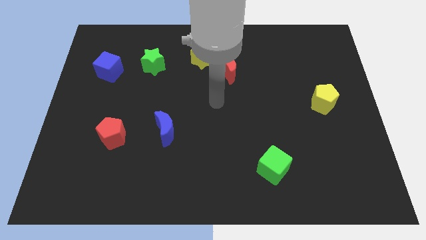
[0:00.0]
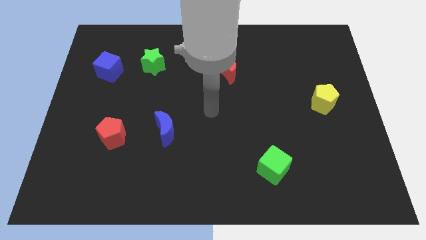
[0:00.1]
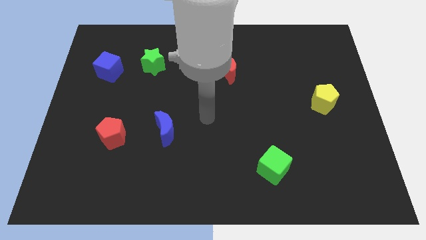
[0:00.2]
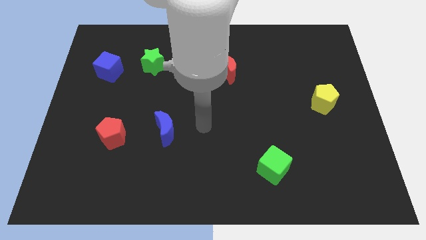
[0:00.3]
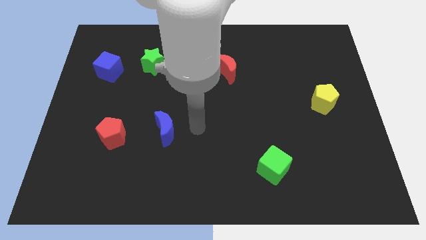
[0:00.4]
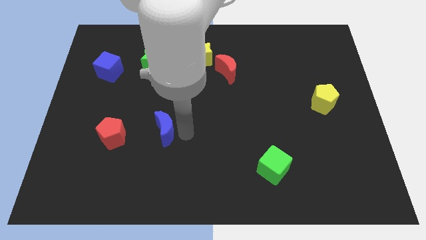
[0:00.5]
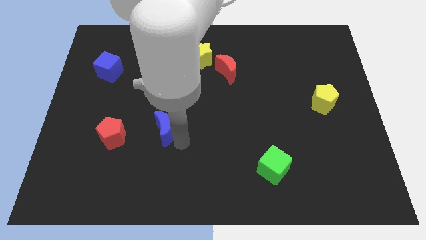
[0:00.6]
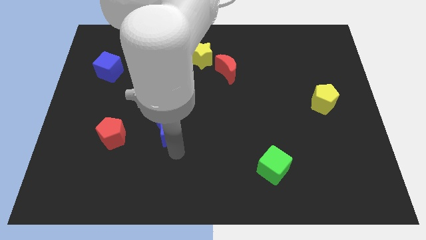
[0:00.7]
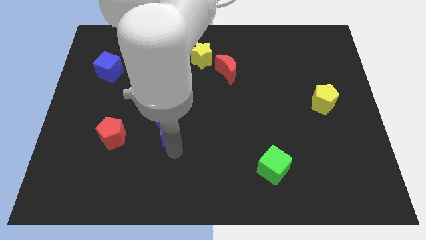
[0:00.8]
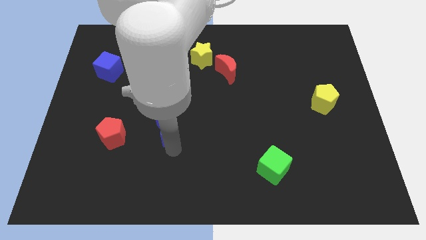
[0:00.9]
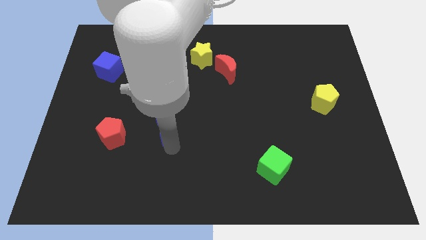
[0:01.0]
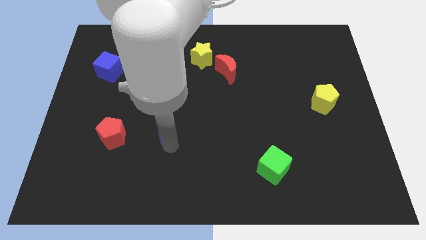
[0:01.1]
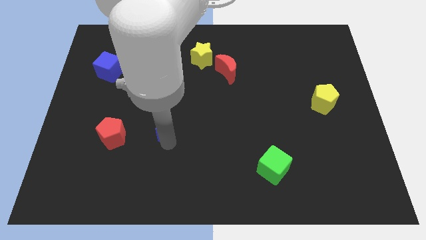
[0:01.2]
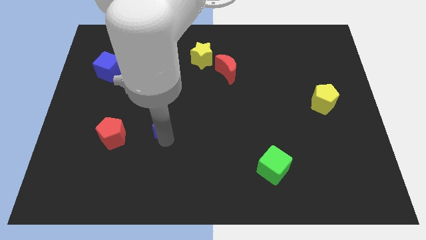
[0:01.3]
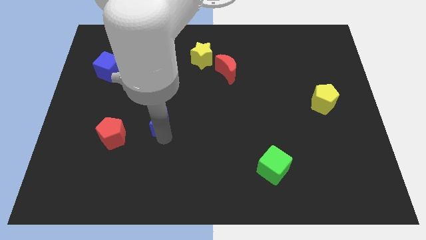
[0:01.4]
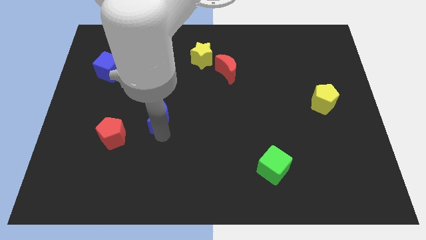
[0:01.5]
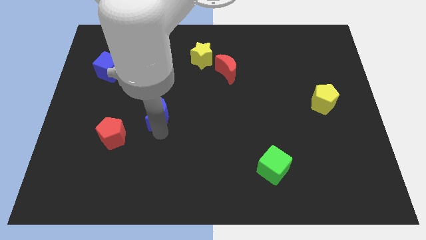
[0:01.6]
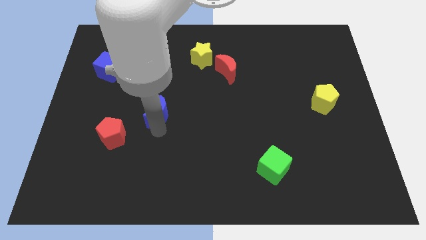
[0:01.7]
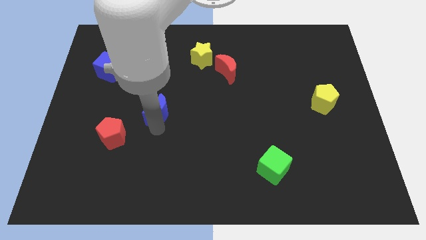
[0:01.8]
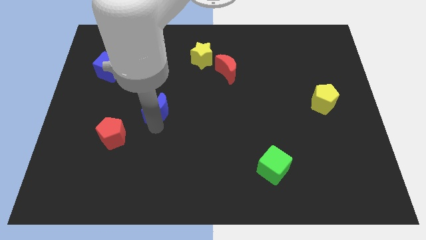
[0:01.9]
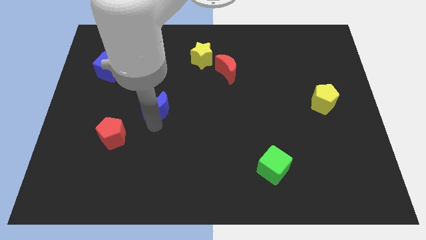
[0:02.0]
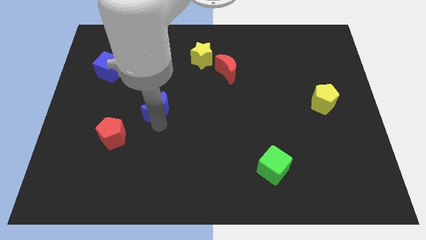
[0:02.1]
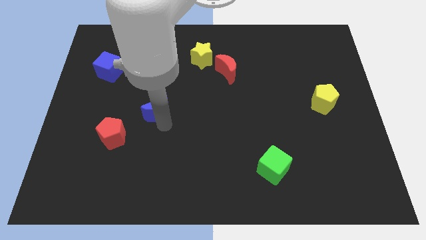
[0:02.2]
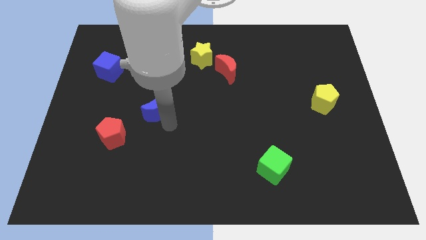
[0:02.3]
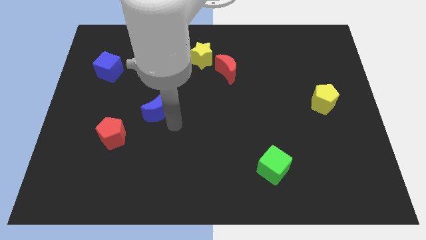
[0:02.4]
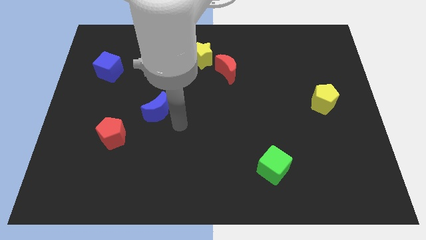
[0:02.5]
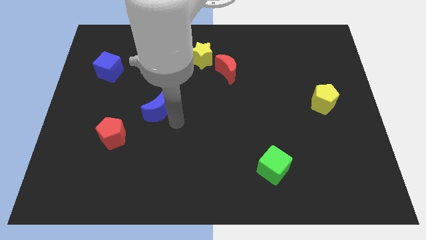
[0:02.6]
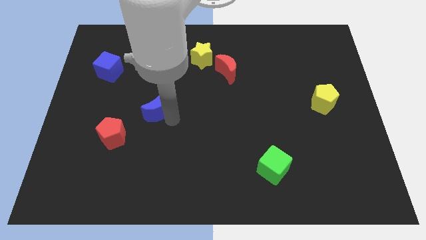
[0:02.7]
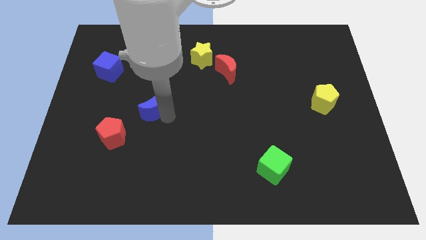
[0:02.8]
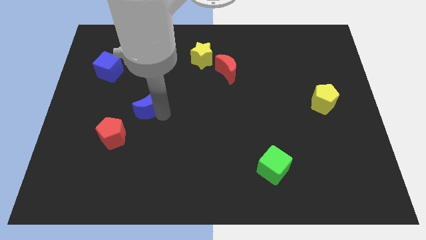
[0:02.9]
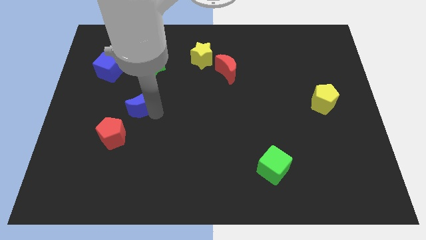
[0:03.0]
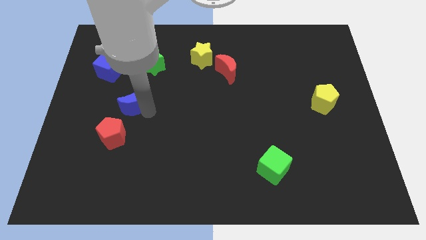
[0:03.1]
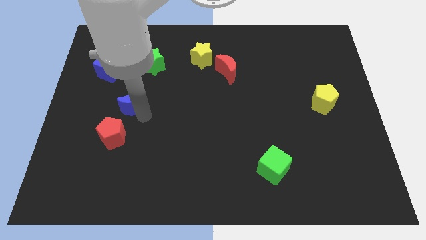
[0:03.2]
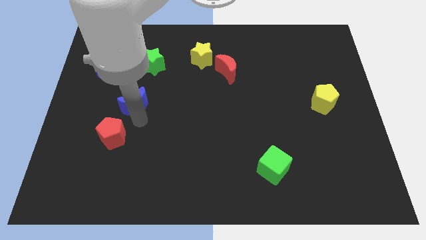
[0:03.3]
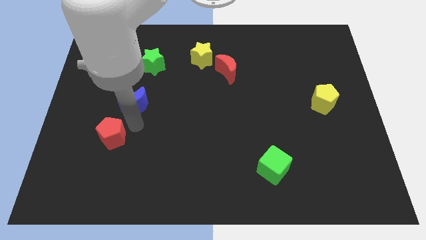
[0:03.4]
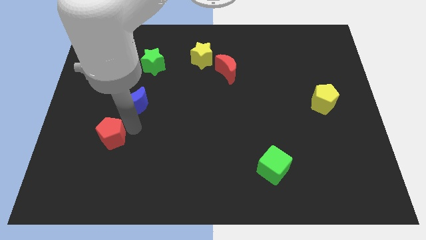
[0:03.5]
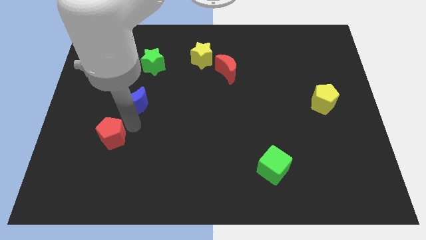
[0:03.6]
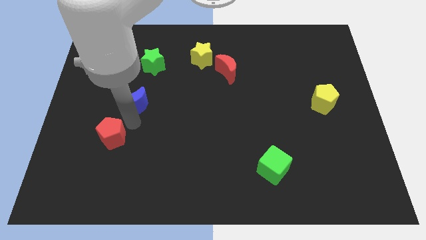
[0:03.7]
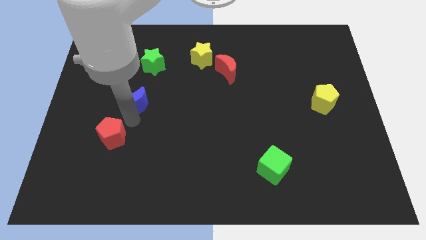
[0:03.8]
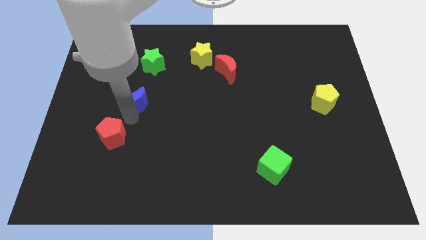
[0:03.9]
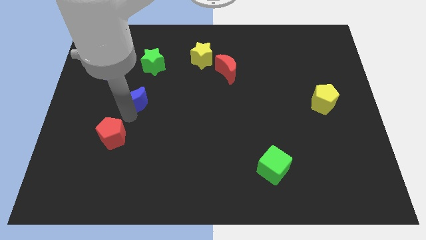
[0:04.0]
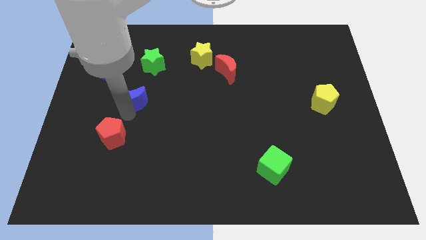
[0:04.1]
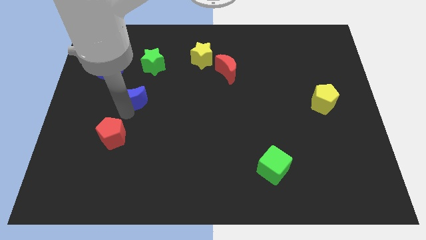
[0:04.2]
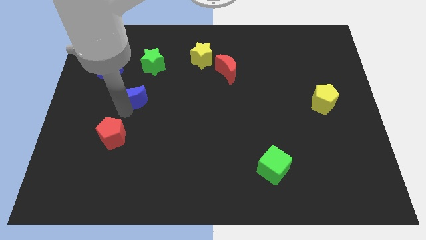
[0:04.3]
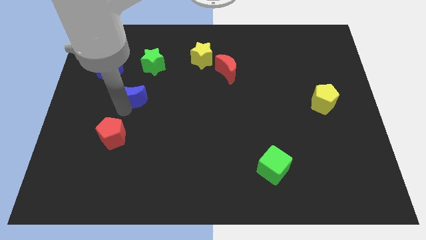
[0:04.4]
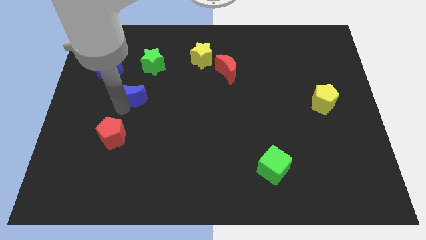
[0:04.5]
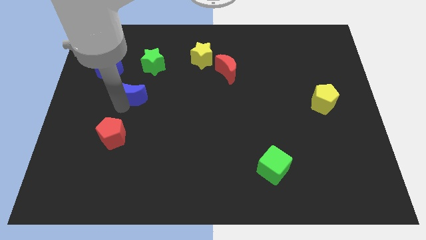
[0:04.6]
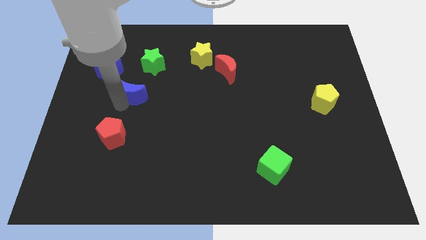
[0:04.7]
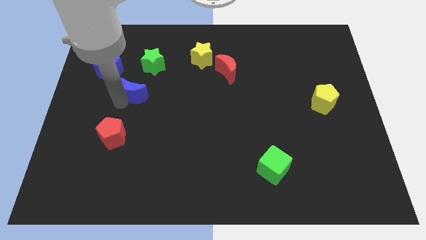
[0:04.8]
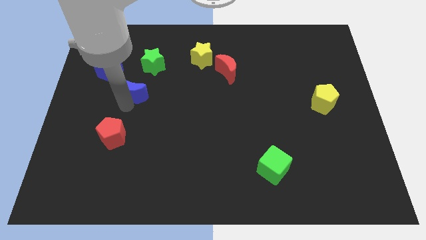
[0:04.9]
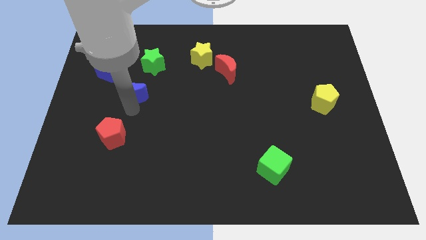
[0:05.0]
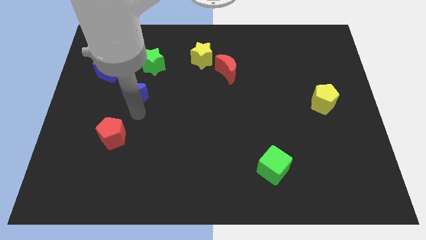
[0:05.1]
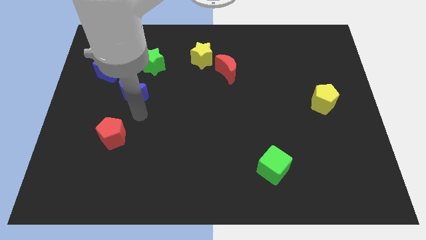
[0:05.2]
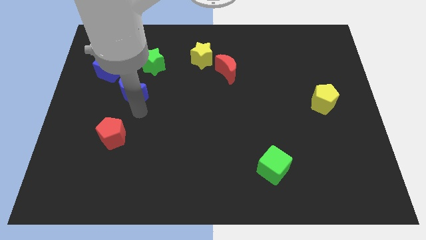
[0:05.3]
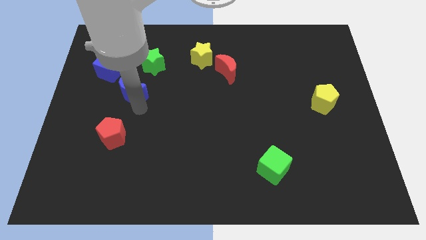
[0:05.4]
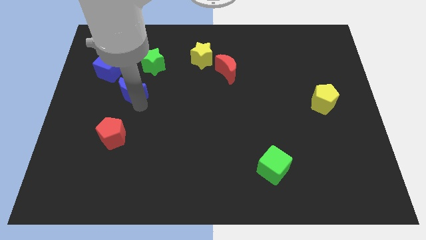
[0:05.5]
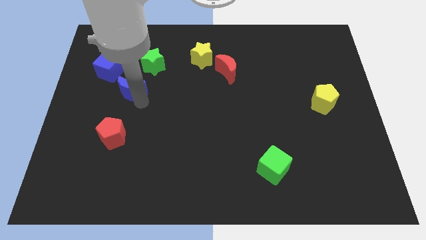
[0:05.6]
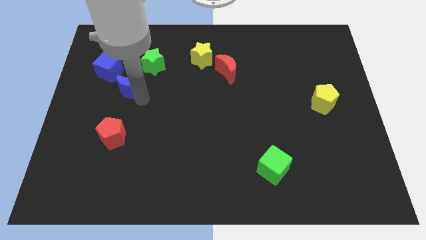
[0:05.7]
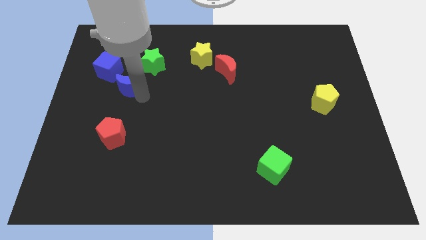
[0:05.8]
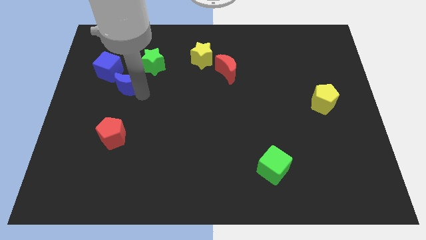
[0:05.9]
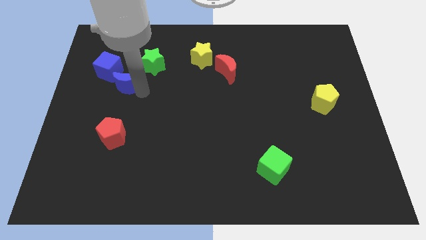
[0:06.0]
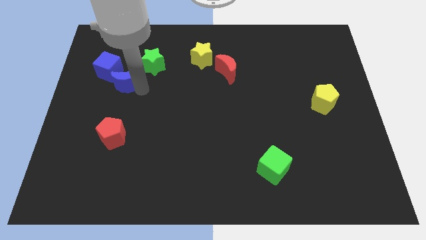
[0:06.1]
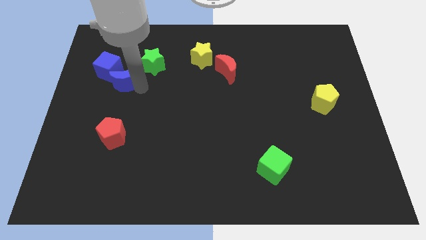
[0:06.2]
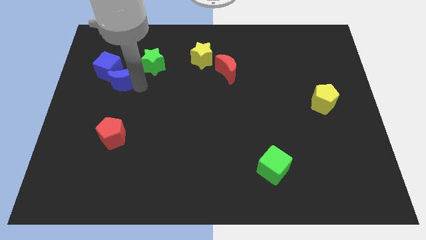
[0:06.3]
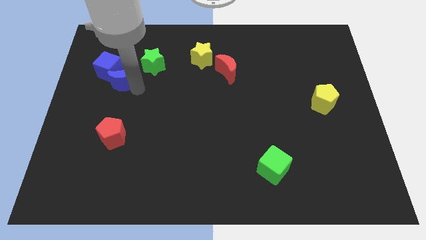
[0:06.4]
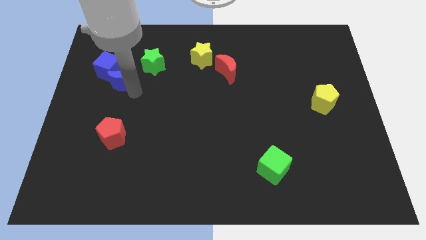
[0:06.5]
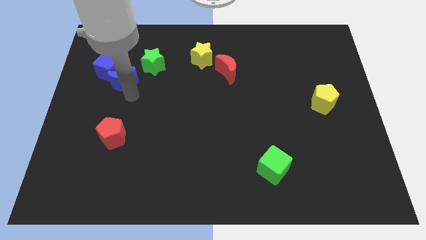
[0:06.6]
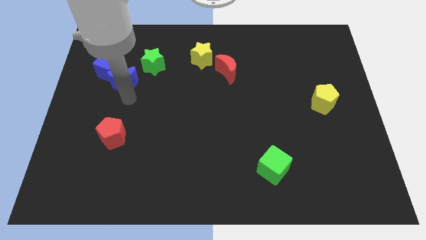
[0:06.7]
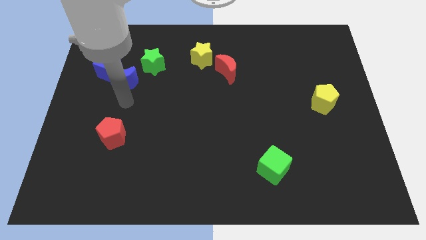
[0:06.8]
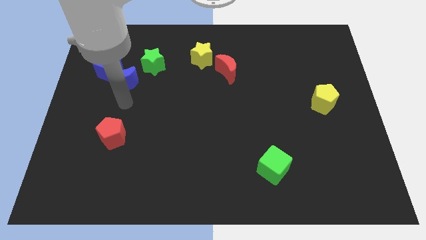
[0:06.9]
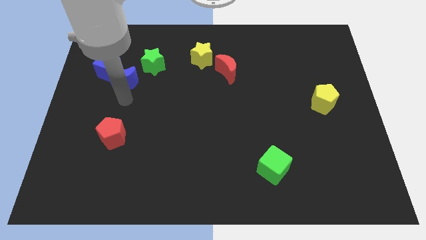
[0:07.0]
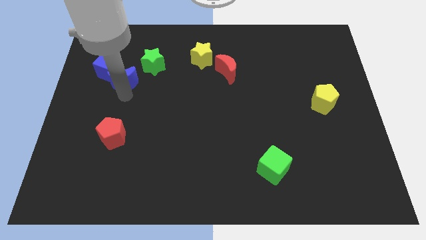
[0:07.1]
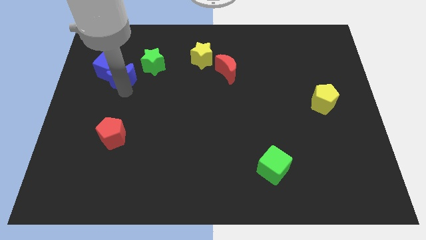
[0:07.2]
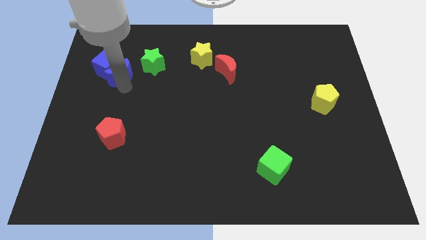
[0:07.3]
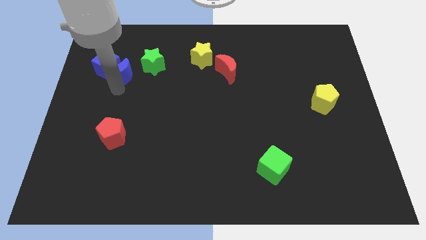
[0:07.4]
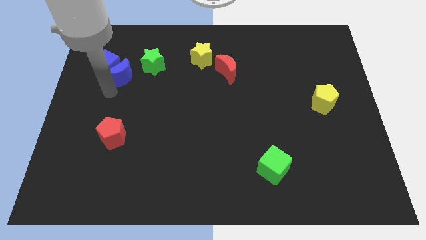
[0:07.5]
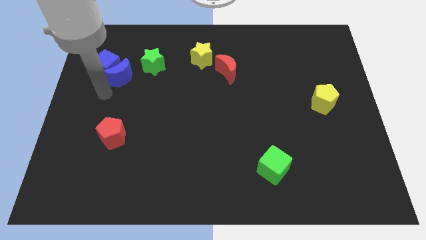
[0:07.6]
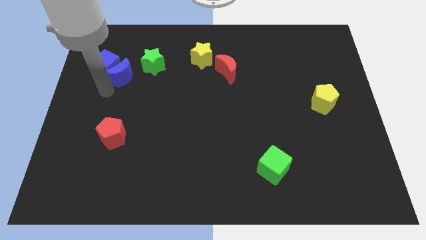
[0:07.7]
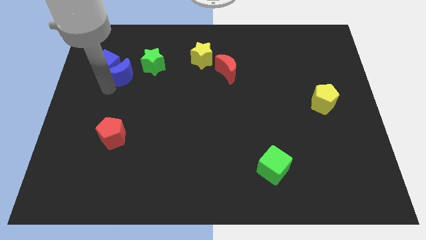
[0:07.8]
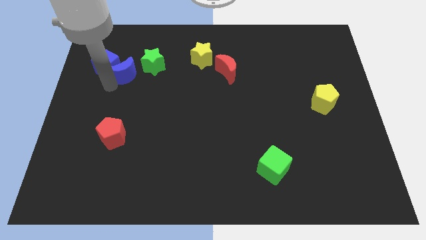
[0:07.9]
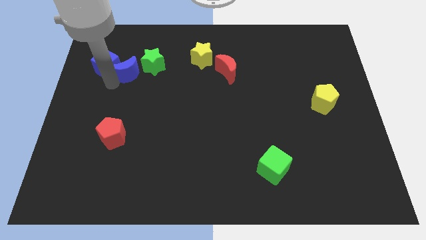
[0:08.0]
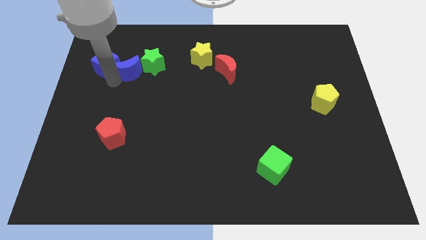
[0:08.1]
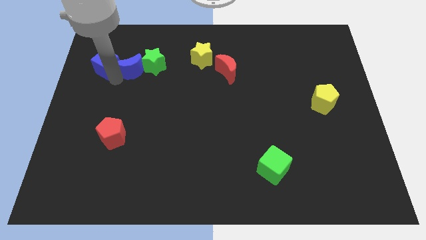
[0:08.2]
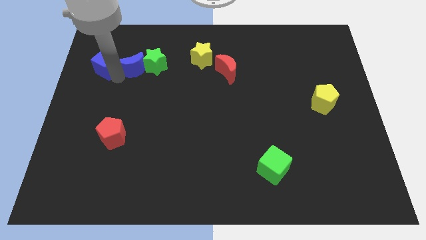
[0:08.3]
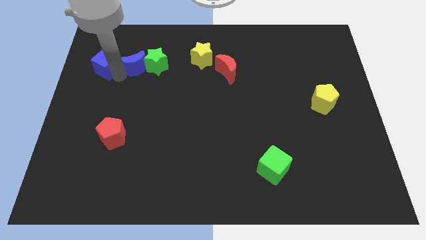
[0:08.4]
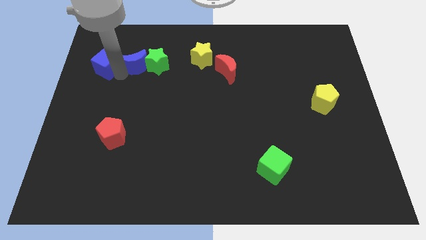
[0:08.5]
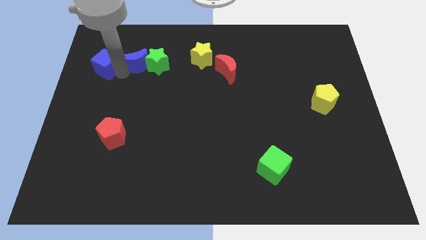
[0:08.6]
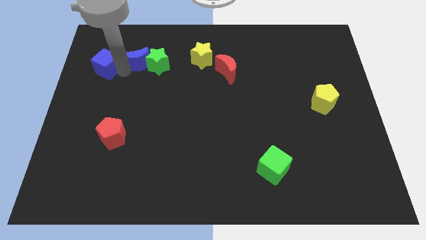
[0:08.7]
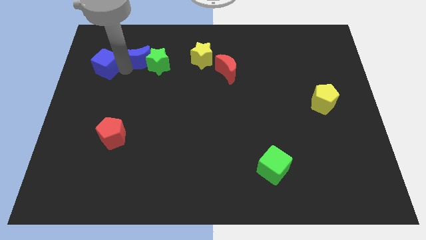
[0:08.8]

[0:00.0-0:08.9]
push the blue moon to the left side of the yellow star
